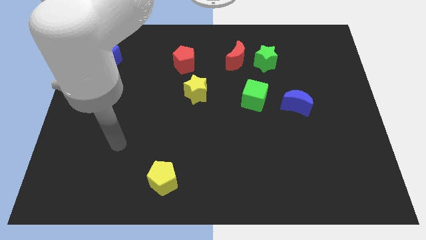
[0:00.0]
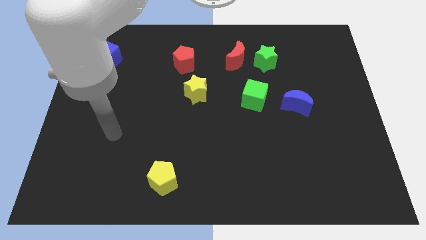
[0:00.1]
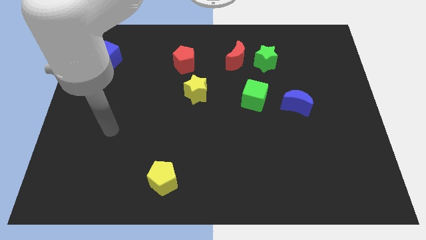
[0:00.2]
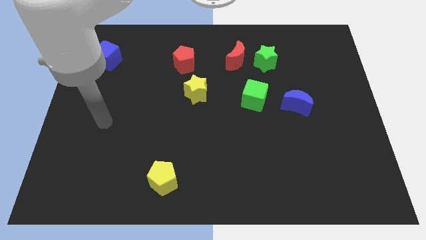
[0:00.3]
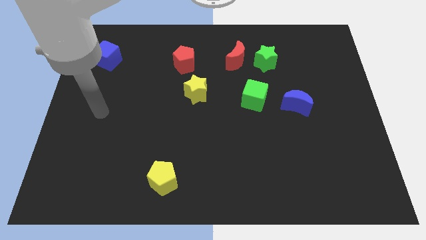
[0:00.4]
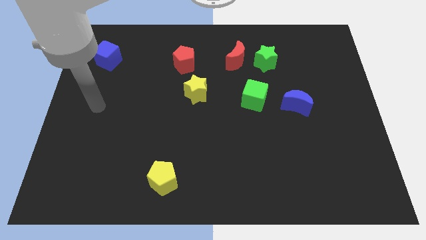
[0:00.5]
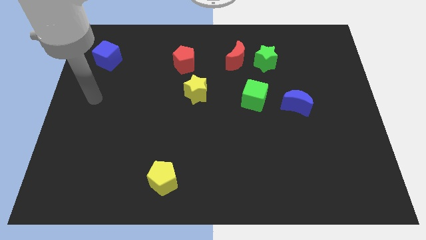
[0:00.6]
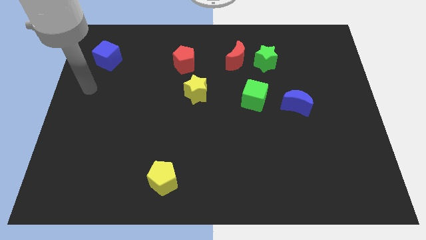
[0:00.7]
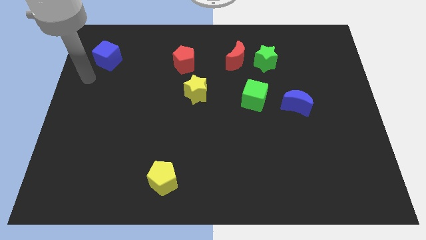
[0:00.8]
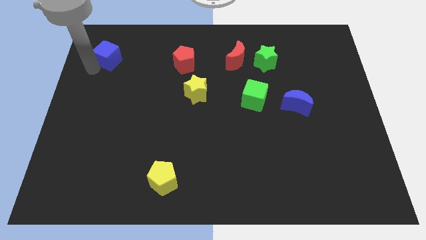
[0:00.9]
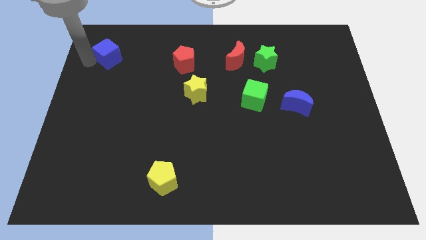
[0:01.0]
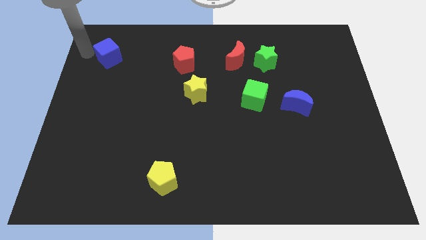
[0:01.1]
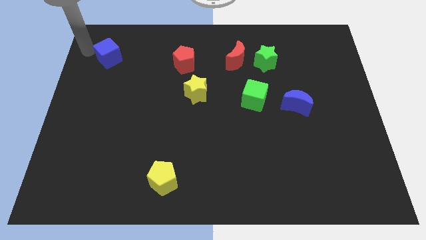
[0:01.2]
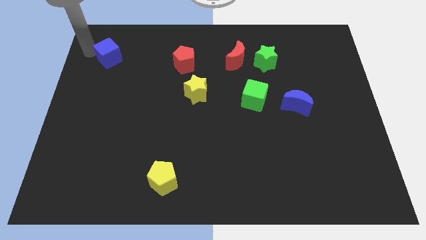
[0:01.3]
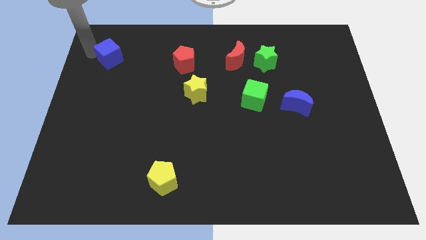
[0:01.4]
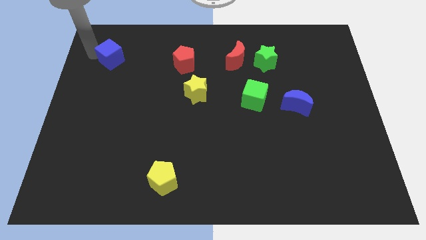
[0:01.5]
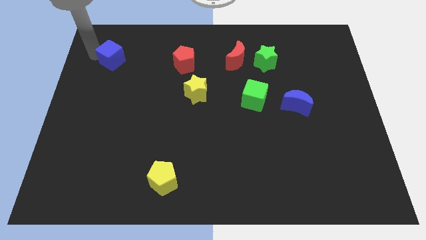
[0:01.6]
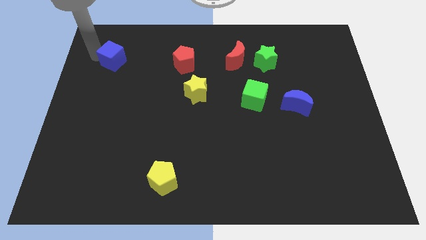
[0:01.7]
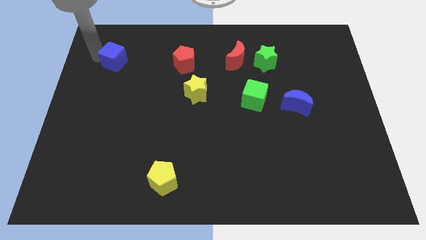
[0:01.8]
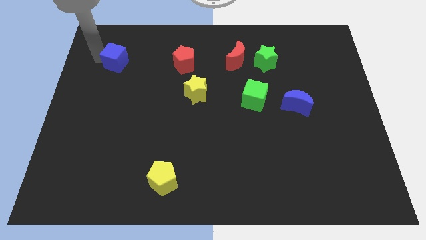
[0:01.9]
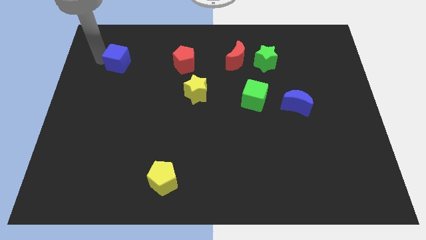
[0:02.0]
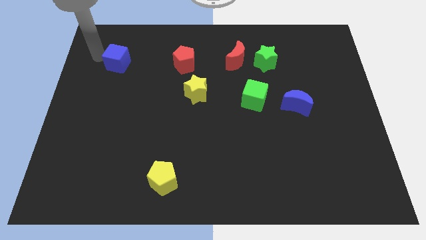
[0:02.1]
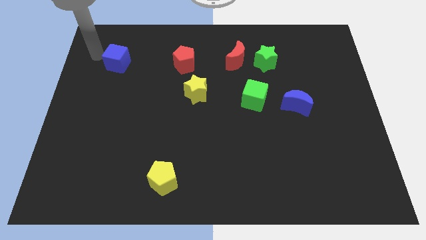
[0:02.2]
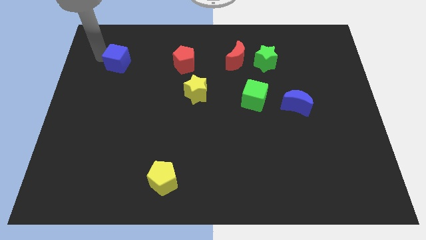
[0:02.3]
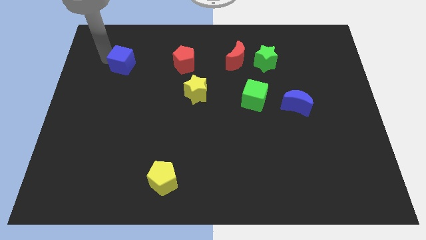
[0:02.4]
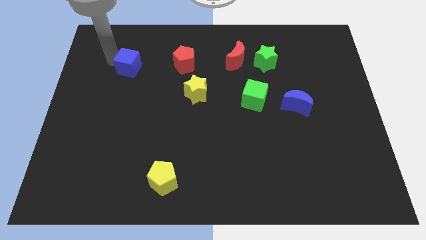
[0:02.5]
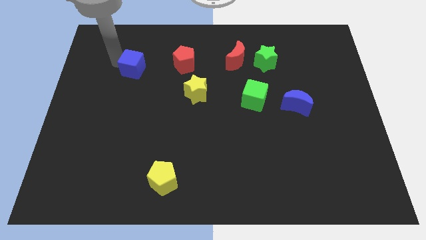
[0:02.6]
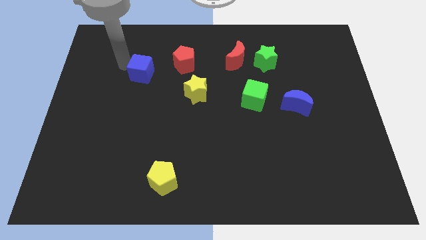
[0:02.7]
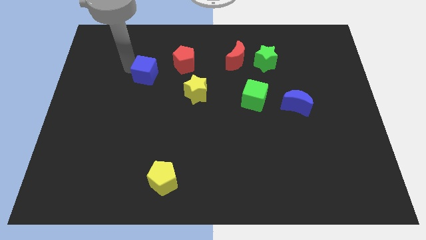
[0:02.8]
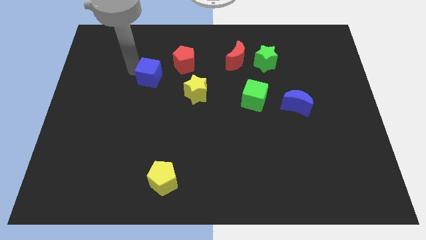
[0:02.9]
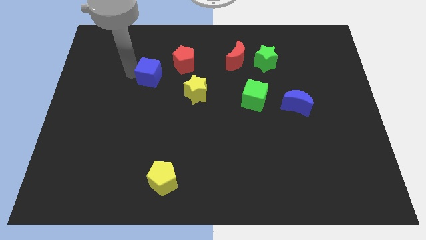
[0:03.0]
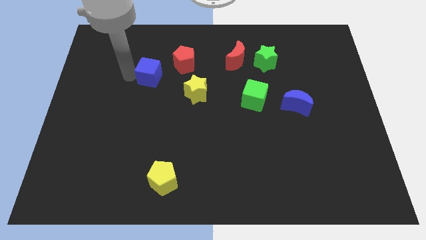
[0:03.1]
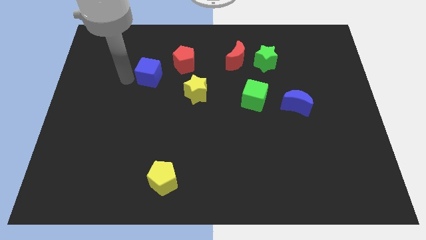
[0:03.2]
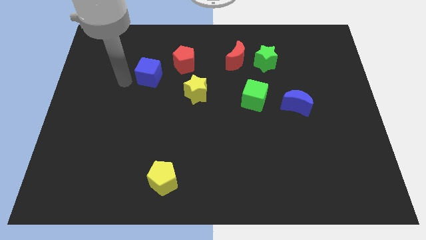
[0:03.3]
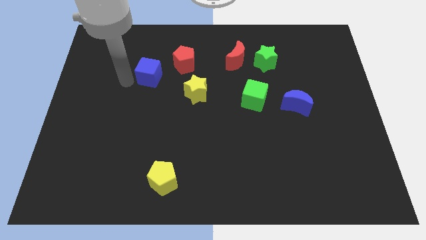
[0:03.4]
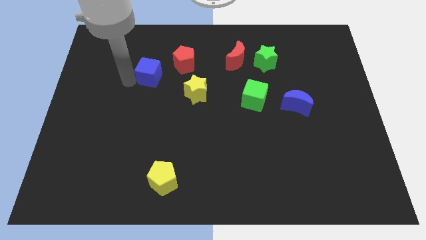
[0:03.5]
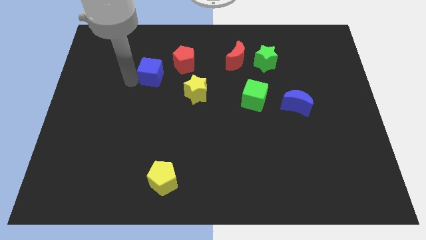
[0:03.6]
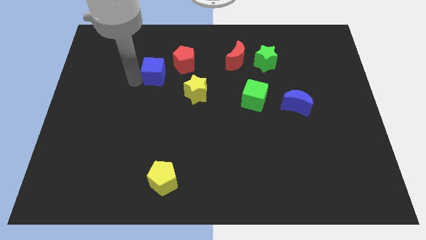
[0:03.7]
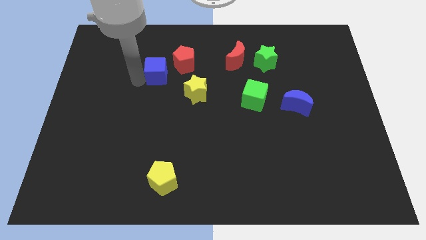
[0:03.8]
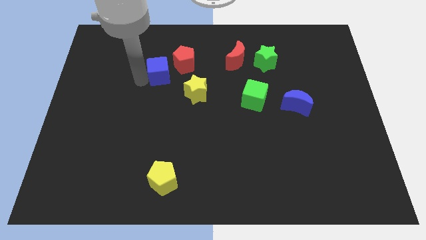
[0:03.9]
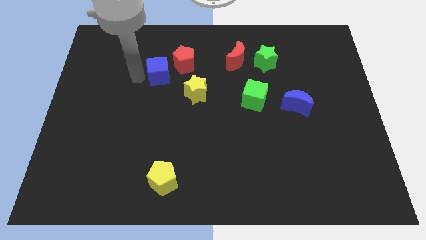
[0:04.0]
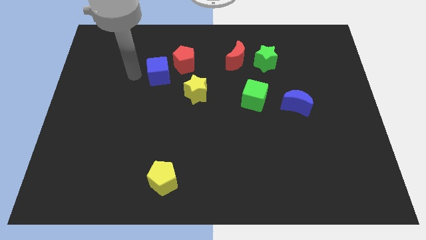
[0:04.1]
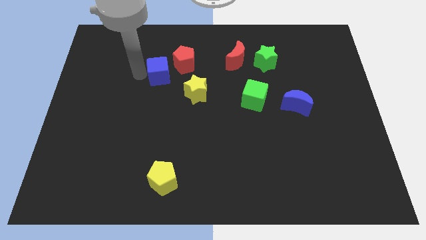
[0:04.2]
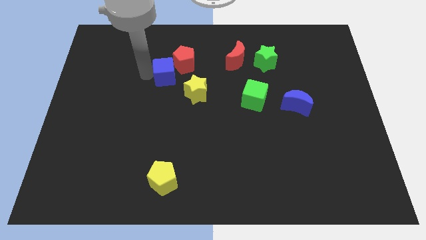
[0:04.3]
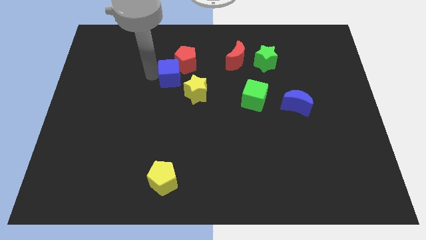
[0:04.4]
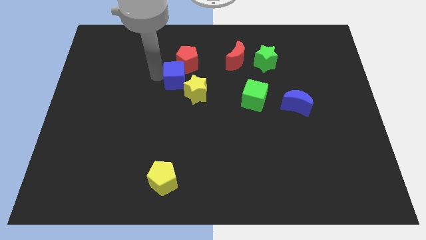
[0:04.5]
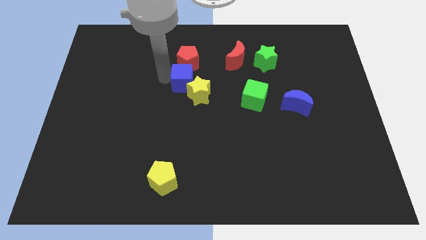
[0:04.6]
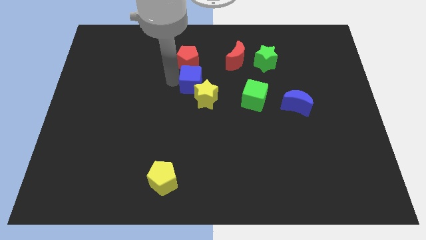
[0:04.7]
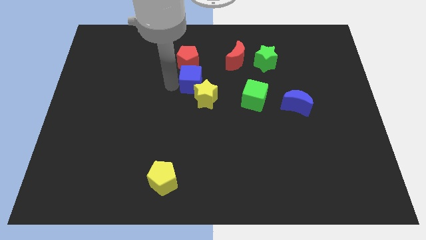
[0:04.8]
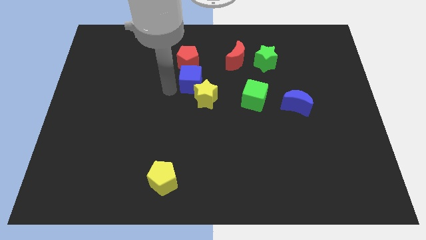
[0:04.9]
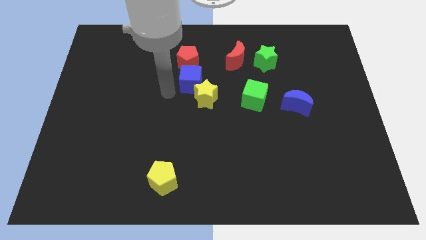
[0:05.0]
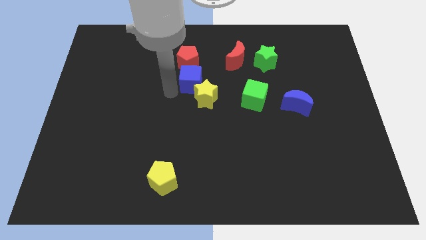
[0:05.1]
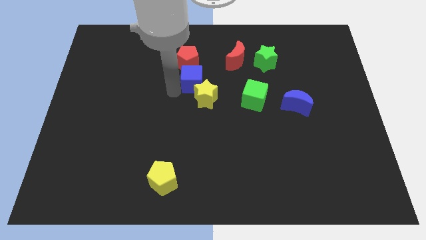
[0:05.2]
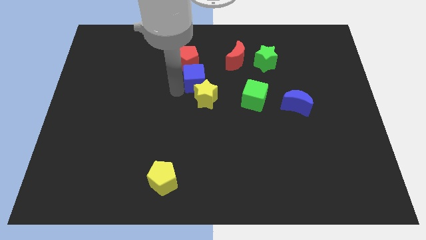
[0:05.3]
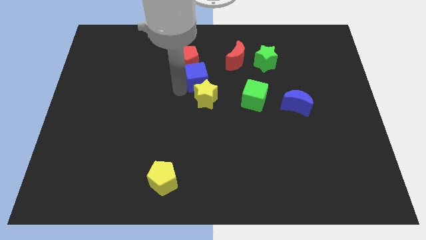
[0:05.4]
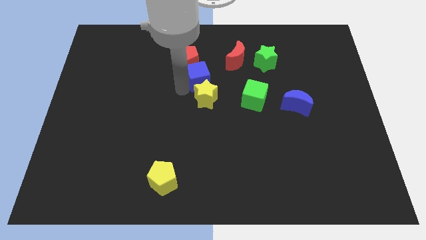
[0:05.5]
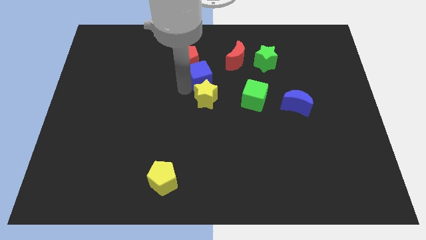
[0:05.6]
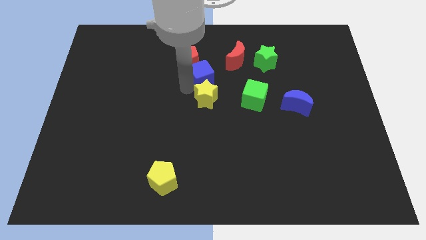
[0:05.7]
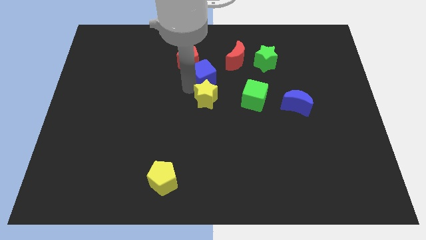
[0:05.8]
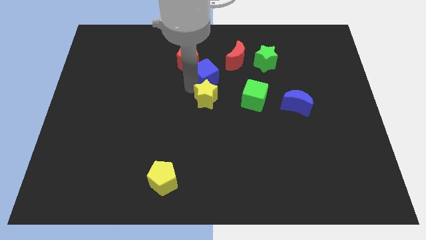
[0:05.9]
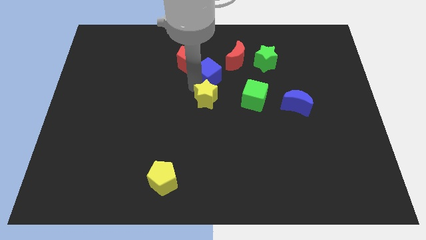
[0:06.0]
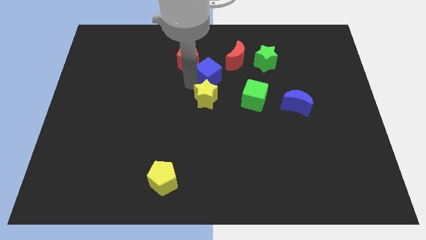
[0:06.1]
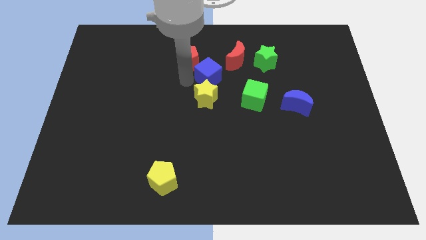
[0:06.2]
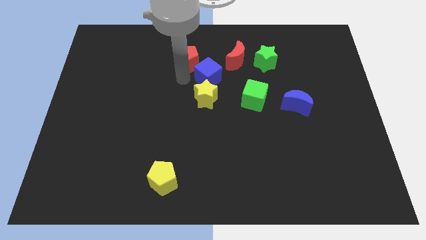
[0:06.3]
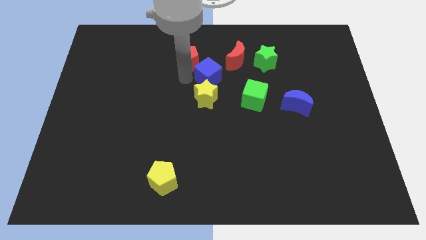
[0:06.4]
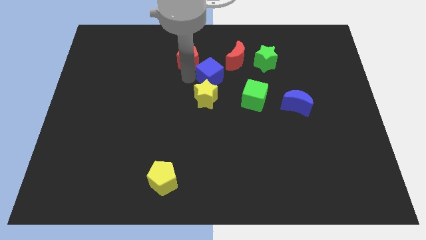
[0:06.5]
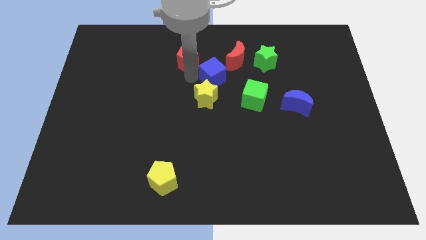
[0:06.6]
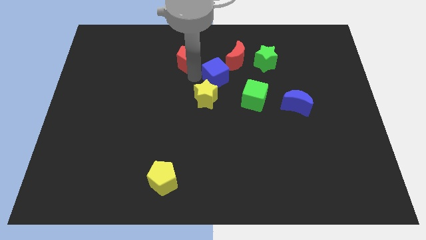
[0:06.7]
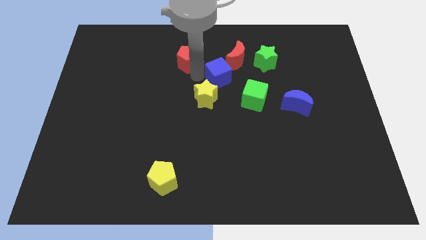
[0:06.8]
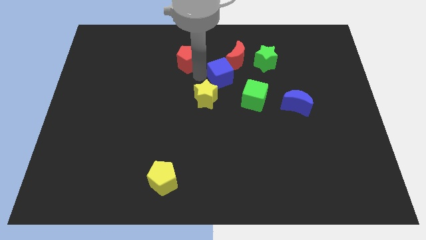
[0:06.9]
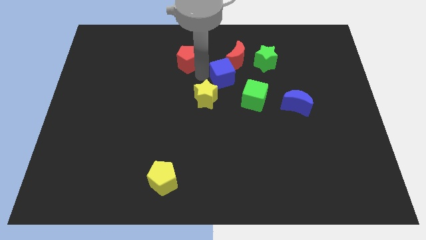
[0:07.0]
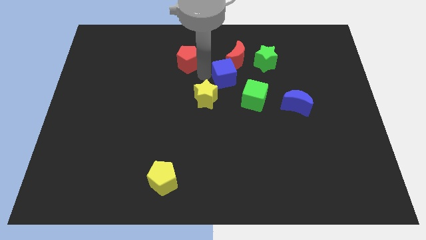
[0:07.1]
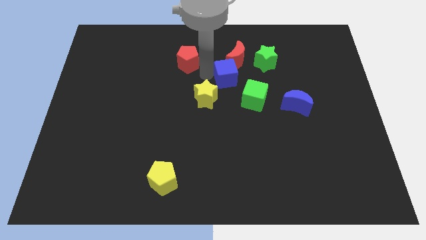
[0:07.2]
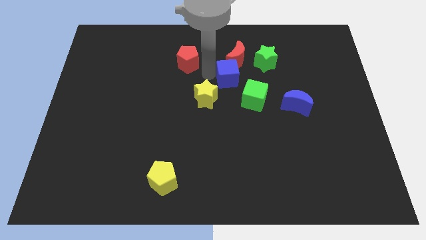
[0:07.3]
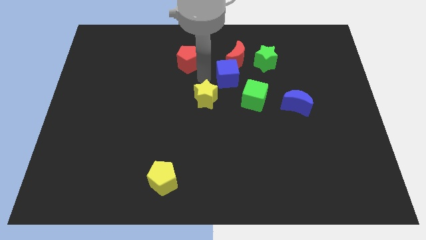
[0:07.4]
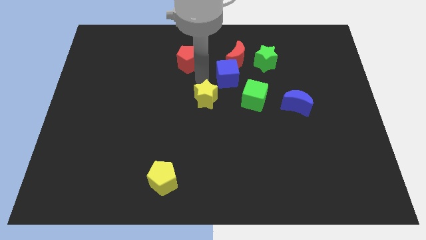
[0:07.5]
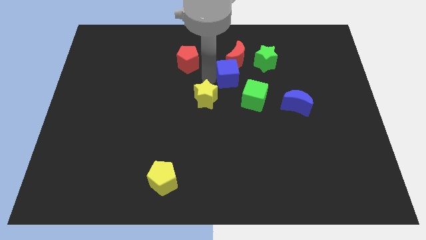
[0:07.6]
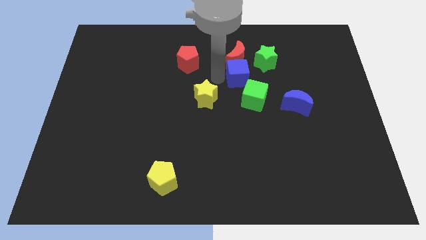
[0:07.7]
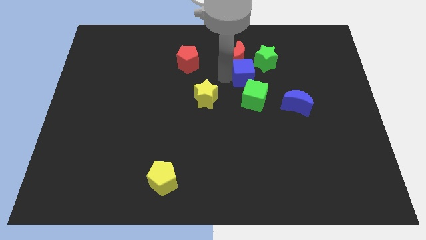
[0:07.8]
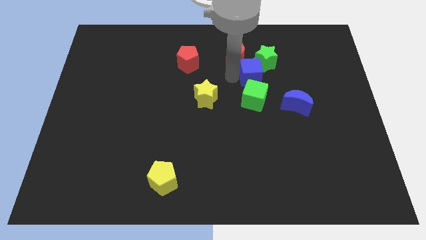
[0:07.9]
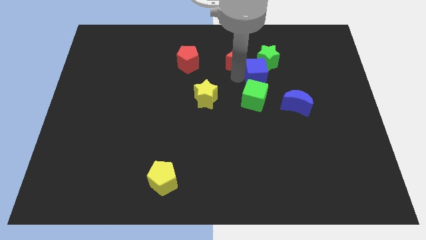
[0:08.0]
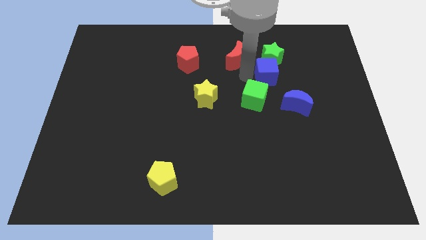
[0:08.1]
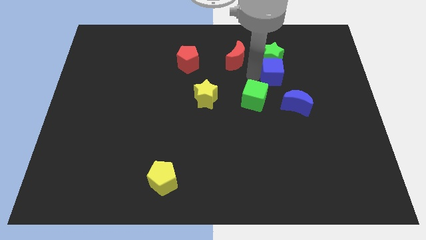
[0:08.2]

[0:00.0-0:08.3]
put the blue cube to the bottom right of the green star
